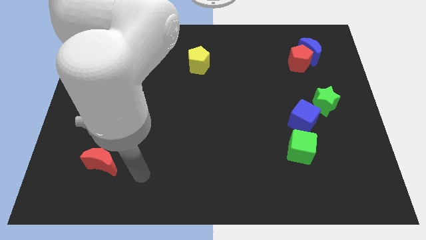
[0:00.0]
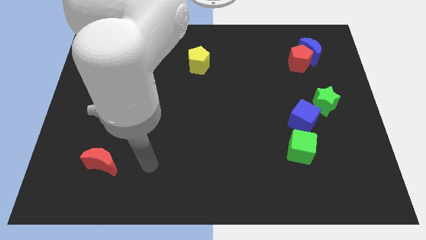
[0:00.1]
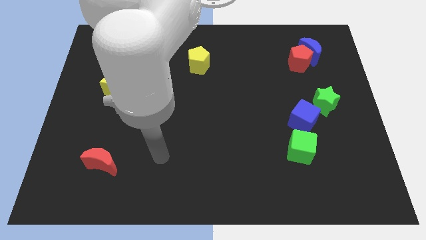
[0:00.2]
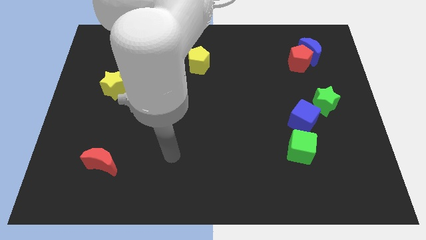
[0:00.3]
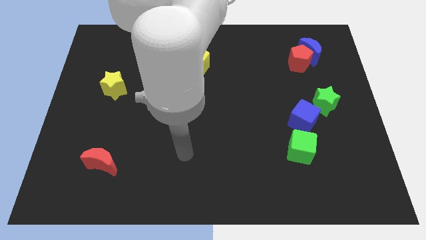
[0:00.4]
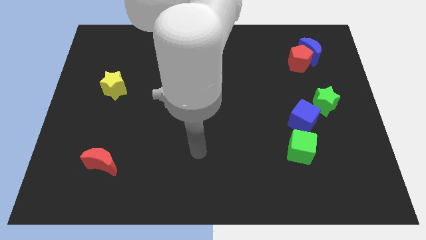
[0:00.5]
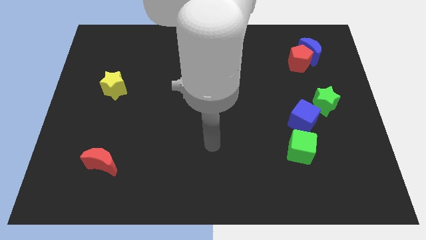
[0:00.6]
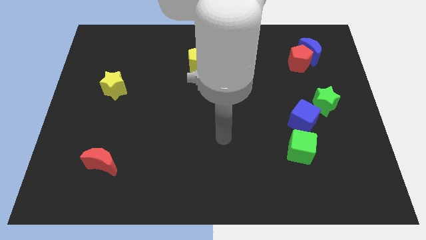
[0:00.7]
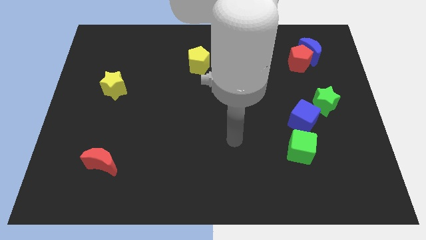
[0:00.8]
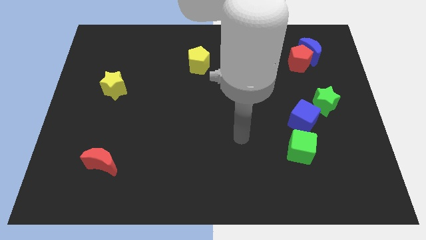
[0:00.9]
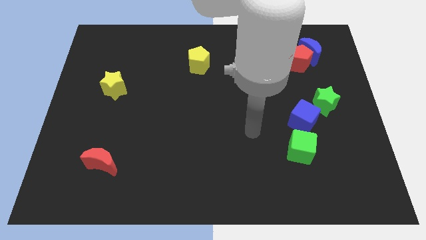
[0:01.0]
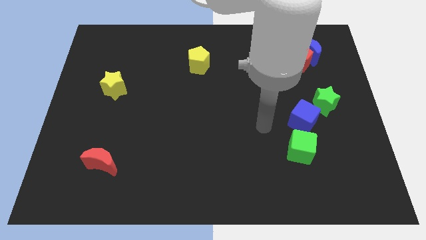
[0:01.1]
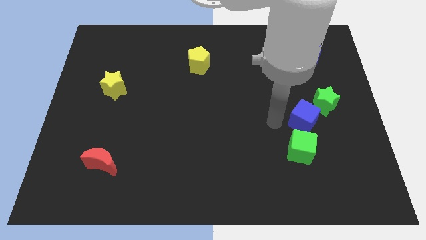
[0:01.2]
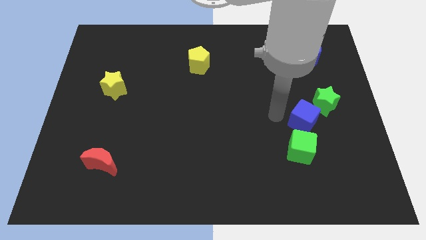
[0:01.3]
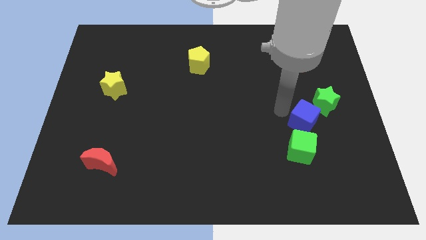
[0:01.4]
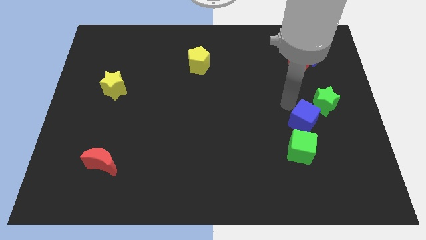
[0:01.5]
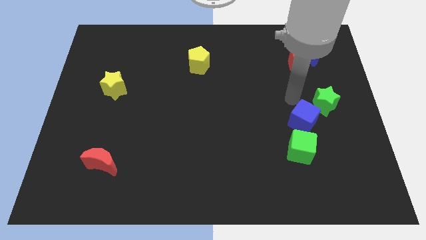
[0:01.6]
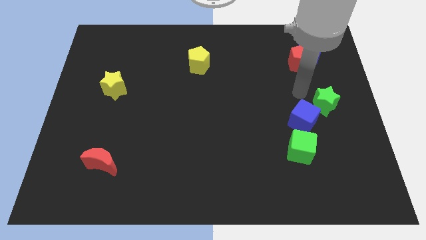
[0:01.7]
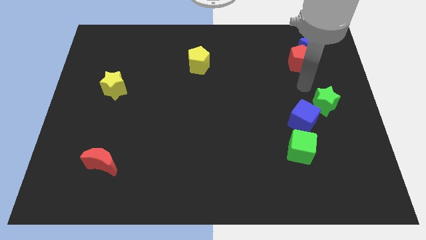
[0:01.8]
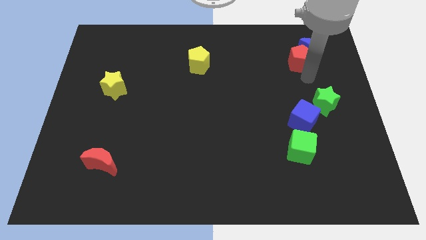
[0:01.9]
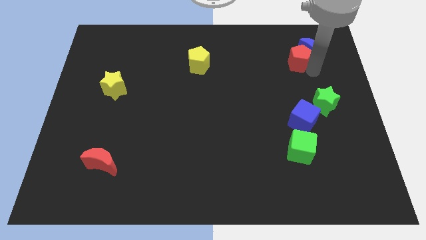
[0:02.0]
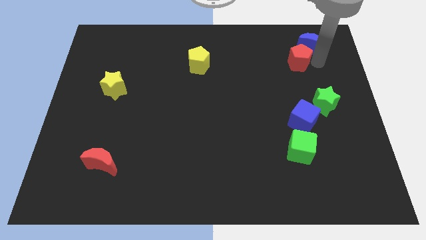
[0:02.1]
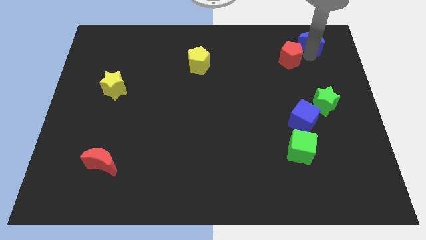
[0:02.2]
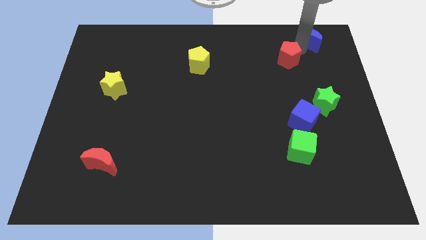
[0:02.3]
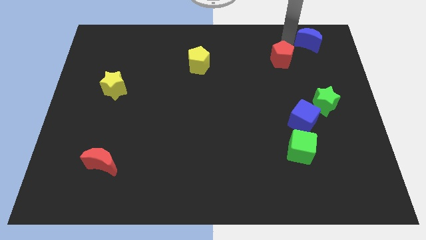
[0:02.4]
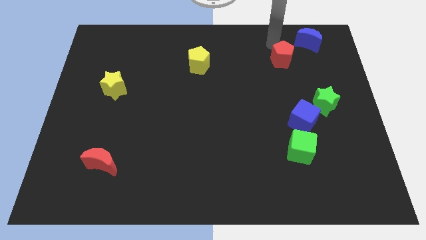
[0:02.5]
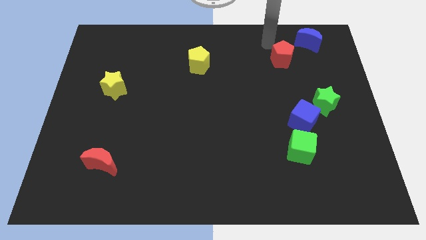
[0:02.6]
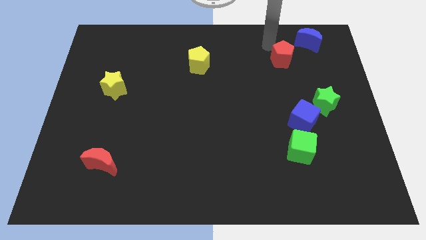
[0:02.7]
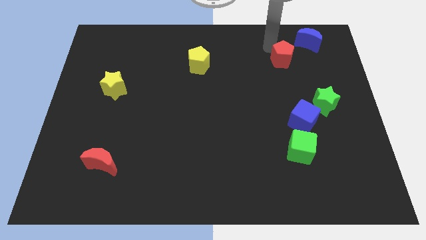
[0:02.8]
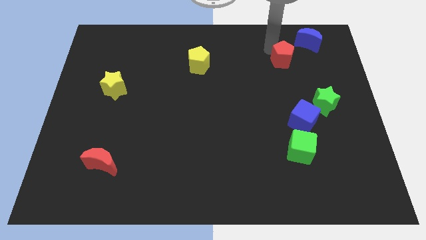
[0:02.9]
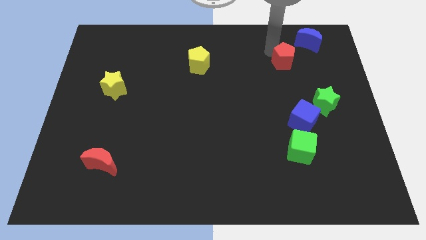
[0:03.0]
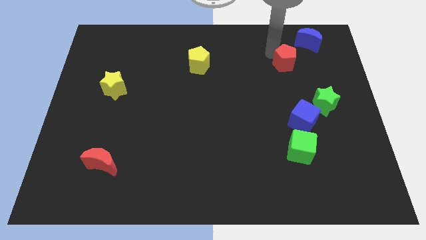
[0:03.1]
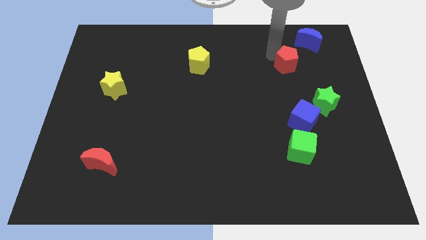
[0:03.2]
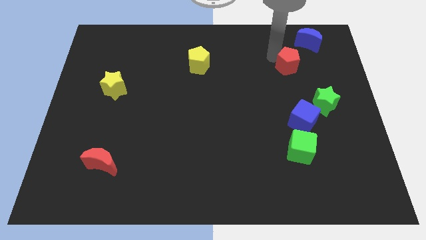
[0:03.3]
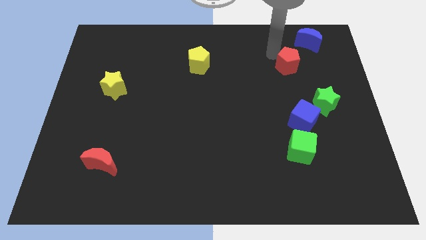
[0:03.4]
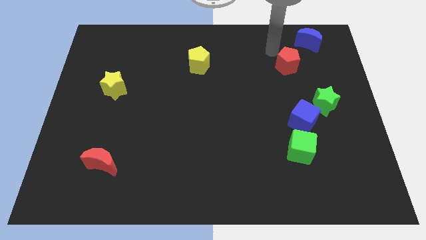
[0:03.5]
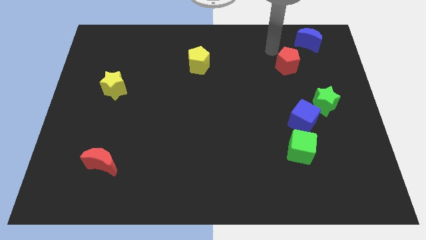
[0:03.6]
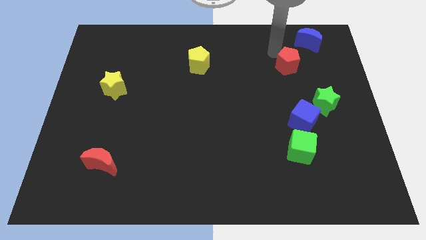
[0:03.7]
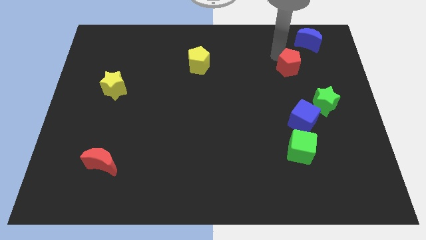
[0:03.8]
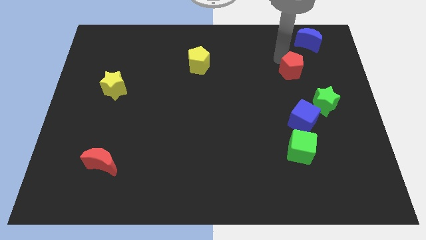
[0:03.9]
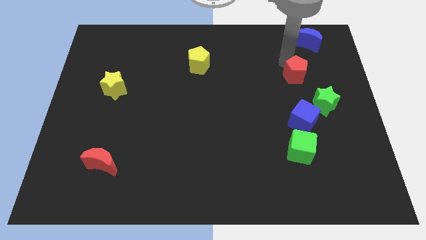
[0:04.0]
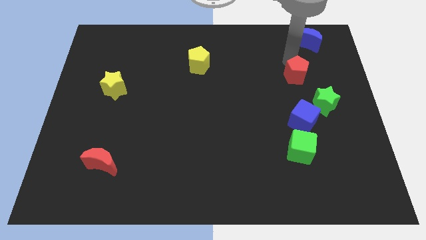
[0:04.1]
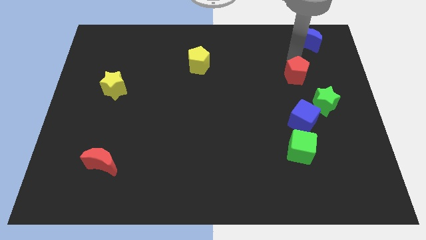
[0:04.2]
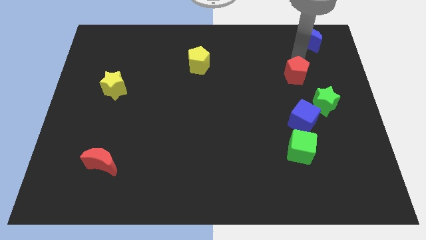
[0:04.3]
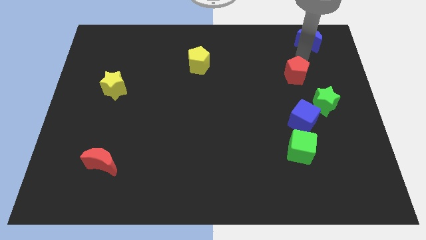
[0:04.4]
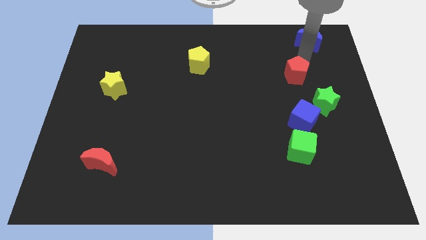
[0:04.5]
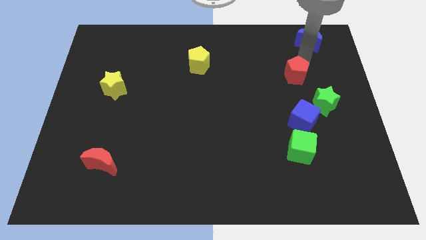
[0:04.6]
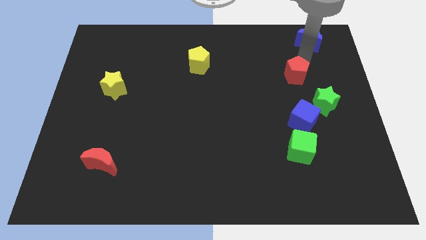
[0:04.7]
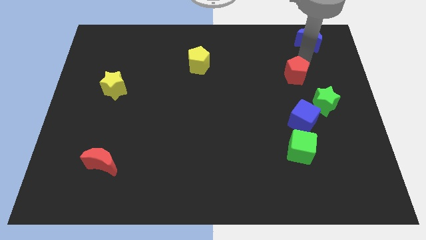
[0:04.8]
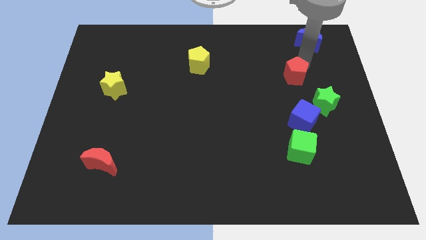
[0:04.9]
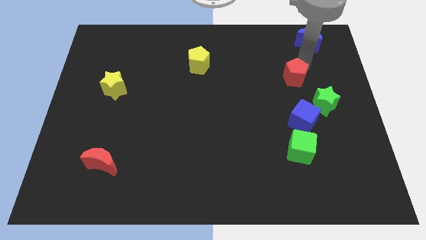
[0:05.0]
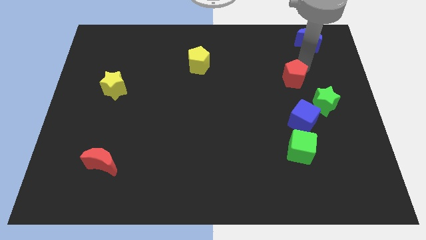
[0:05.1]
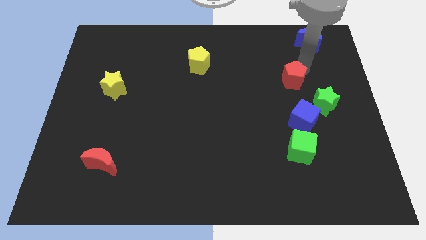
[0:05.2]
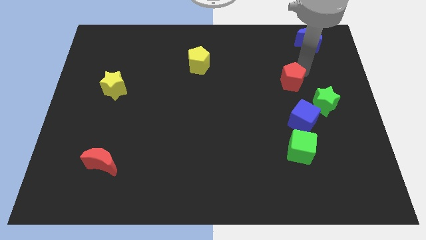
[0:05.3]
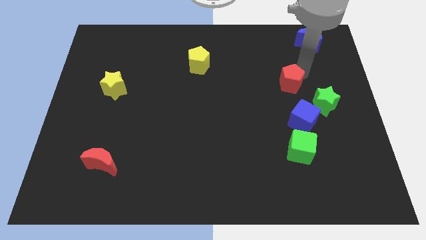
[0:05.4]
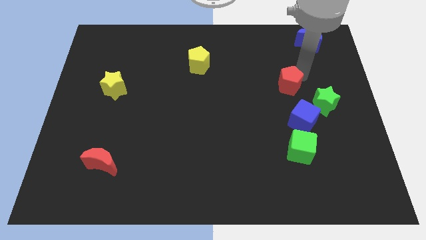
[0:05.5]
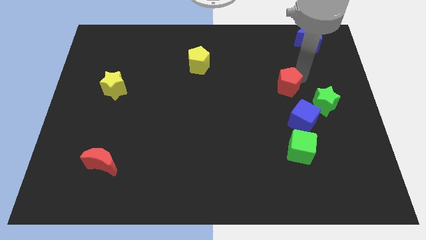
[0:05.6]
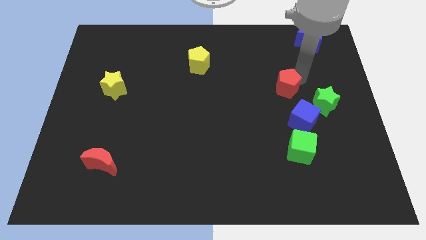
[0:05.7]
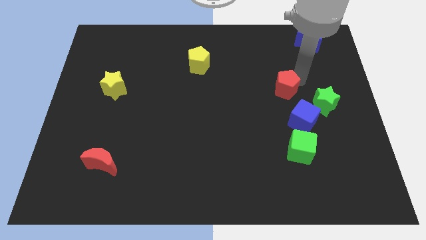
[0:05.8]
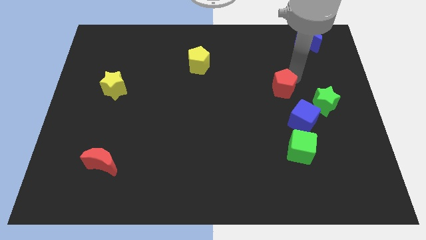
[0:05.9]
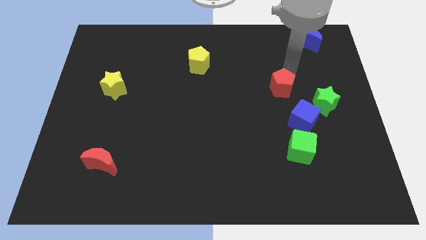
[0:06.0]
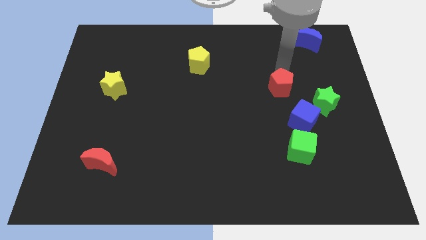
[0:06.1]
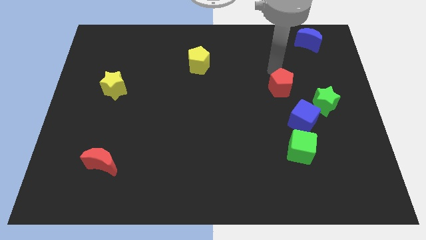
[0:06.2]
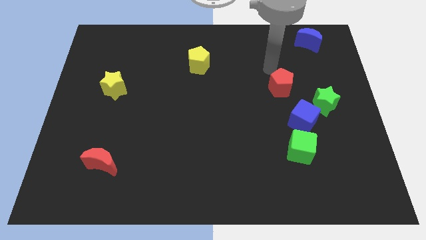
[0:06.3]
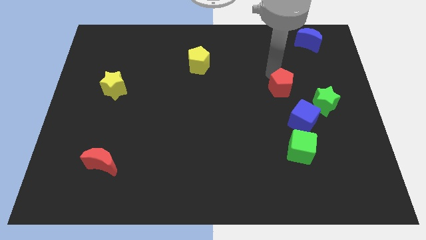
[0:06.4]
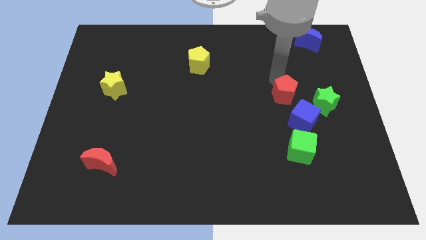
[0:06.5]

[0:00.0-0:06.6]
push the red pentagon to the top side of the green cube

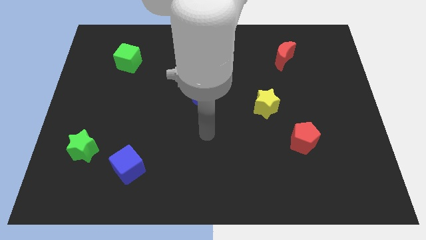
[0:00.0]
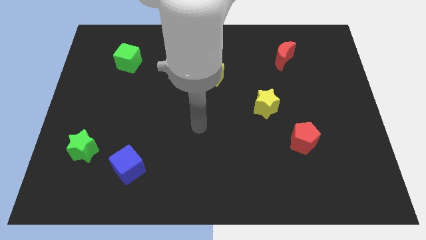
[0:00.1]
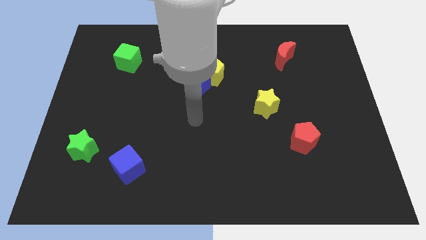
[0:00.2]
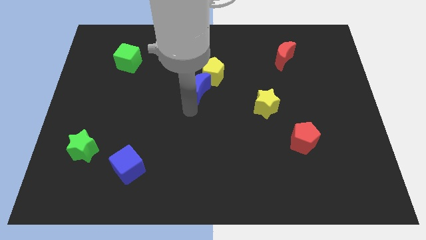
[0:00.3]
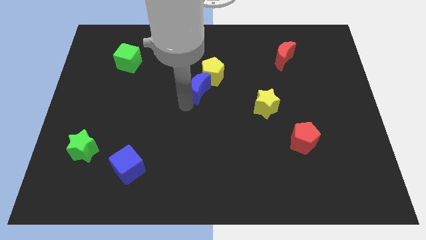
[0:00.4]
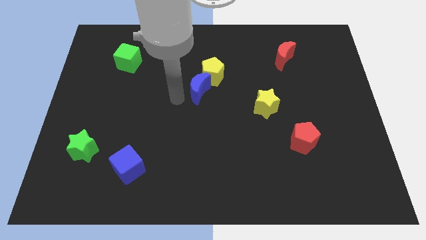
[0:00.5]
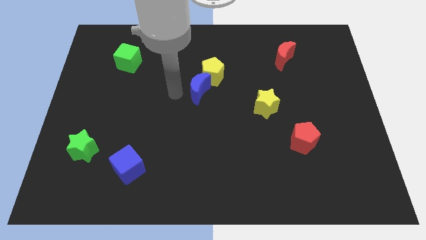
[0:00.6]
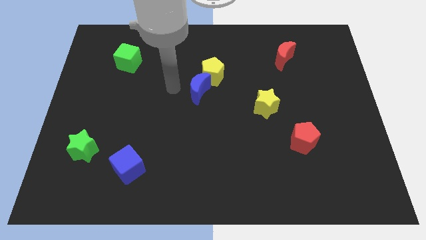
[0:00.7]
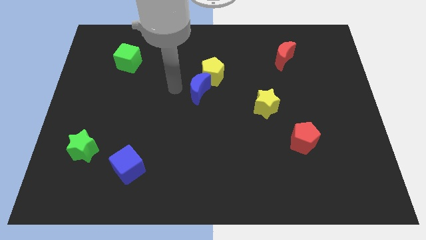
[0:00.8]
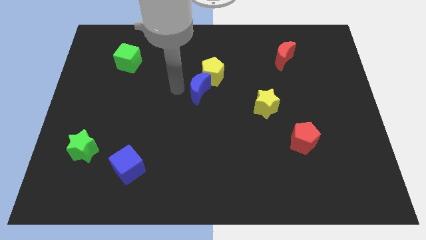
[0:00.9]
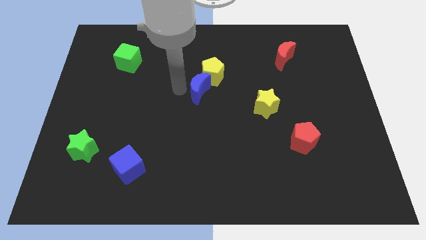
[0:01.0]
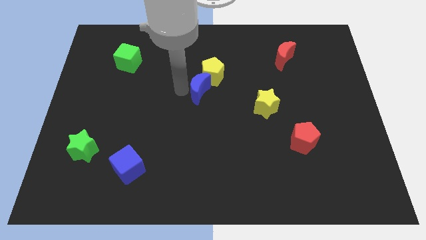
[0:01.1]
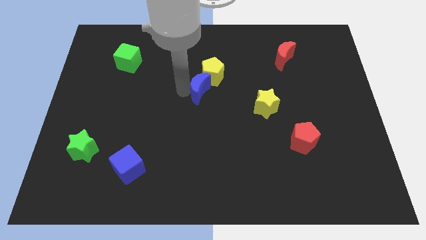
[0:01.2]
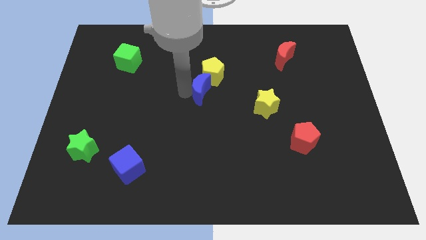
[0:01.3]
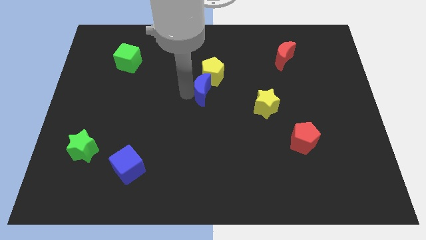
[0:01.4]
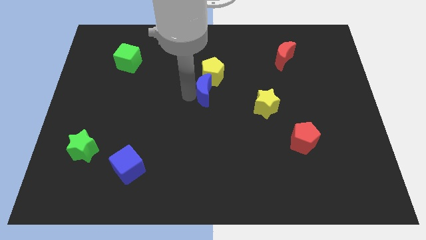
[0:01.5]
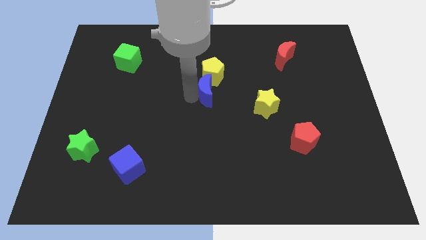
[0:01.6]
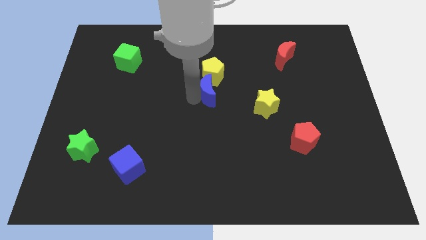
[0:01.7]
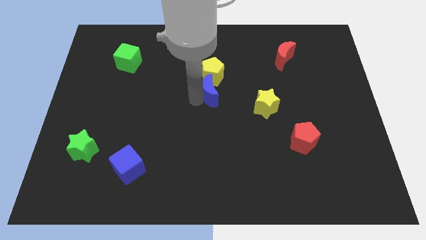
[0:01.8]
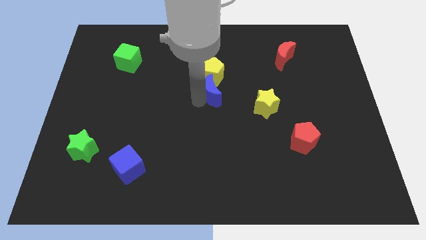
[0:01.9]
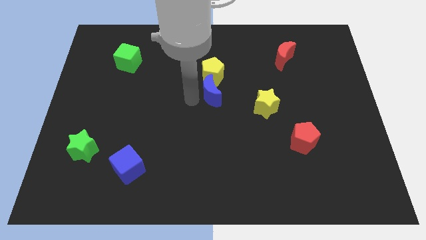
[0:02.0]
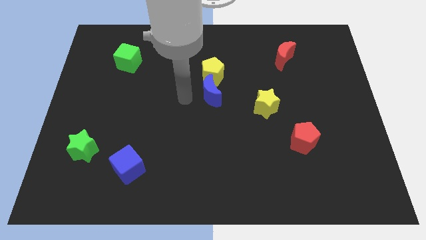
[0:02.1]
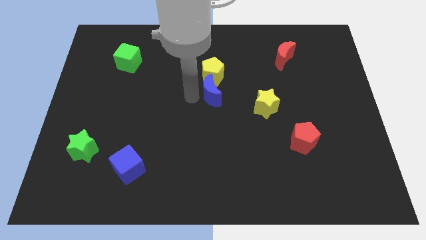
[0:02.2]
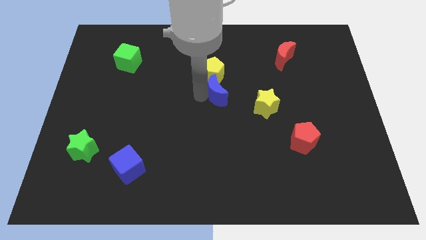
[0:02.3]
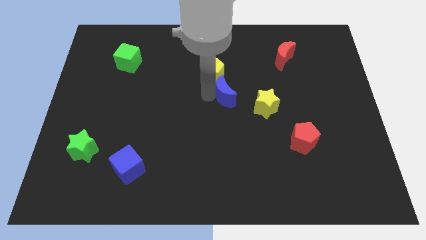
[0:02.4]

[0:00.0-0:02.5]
put the blue moon diagonally up and to the left of the yellow star
